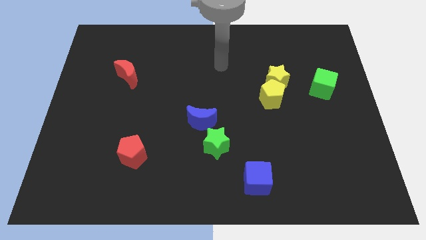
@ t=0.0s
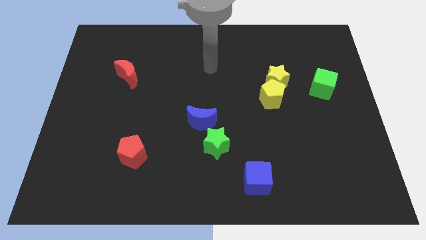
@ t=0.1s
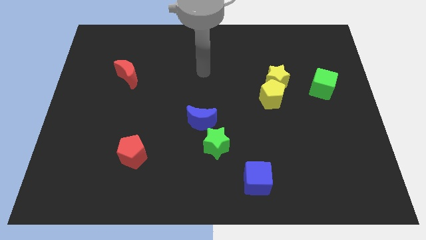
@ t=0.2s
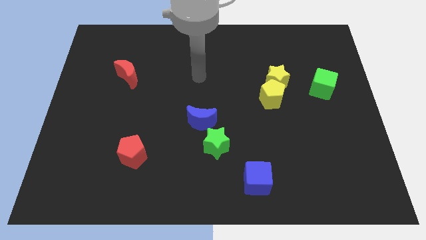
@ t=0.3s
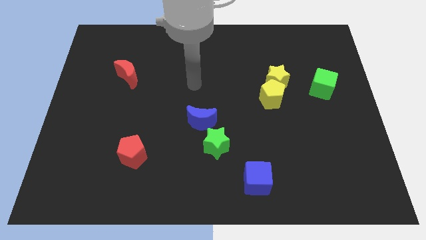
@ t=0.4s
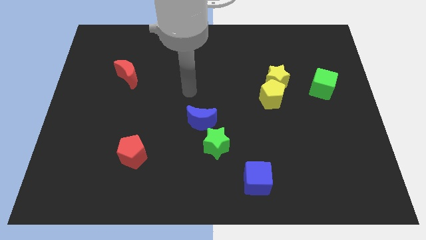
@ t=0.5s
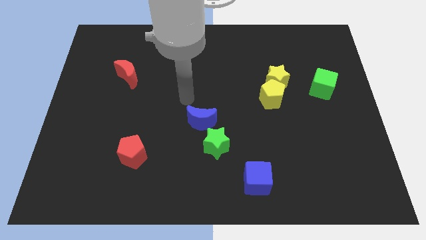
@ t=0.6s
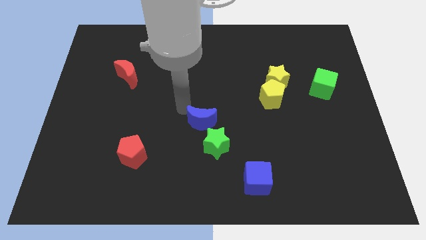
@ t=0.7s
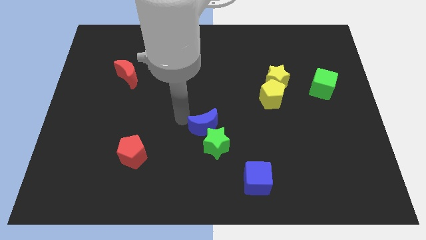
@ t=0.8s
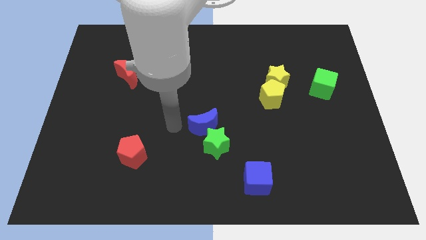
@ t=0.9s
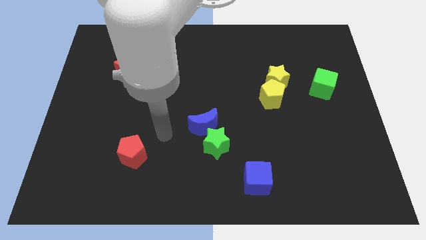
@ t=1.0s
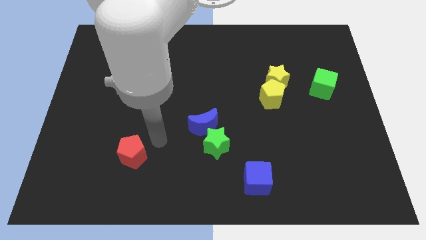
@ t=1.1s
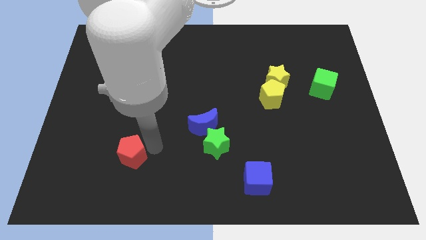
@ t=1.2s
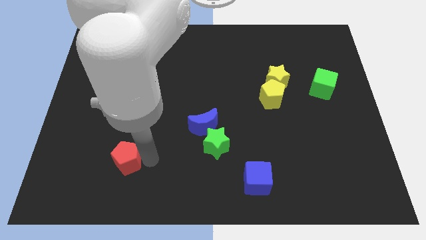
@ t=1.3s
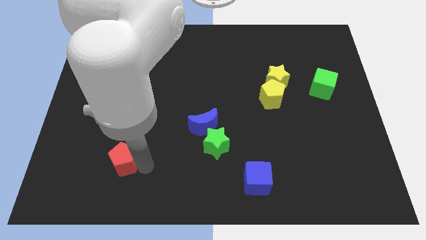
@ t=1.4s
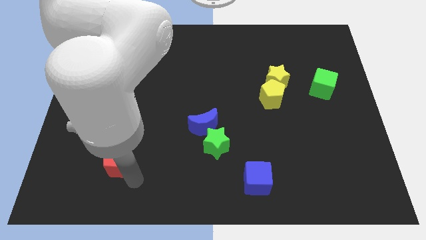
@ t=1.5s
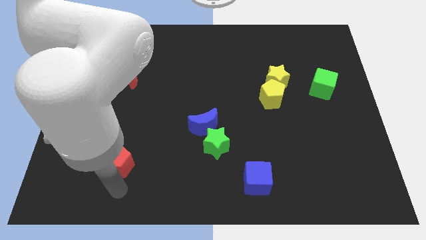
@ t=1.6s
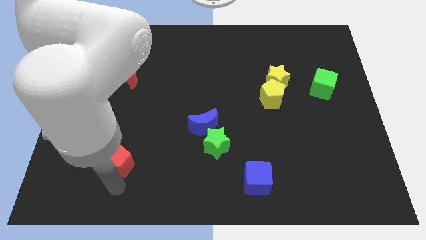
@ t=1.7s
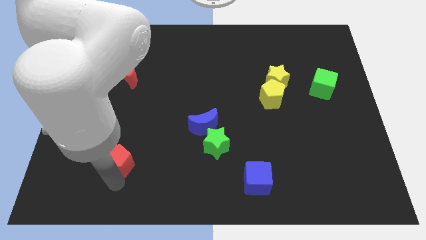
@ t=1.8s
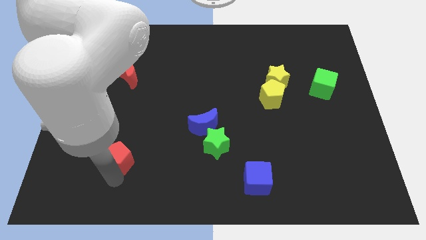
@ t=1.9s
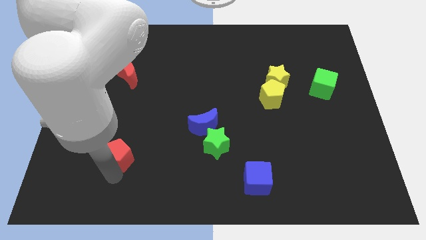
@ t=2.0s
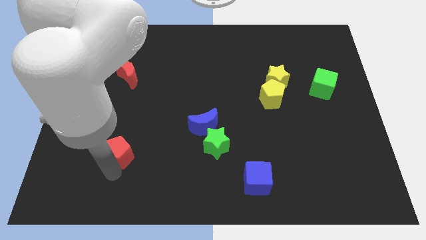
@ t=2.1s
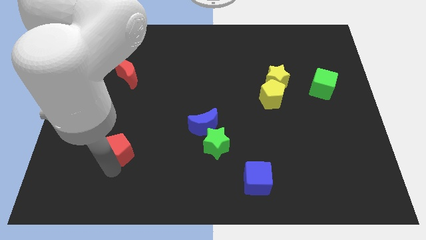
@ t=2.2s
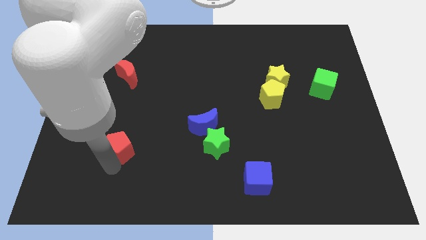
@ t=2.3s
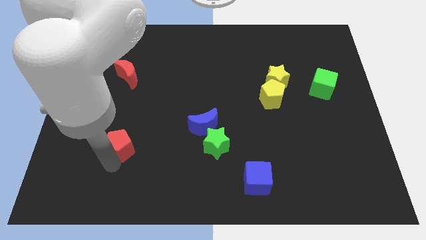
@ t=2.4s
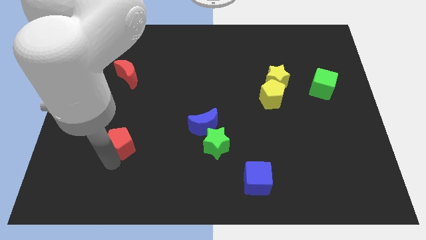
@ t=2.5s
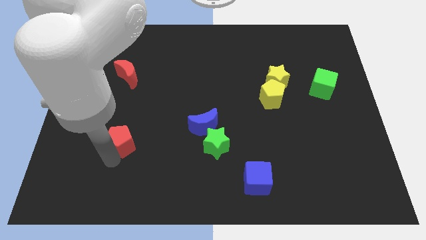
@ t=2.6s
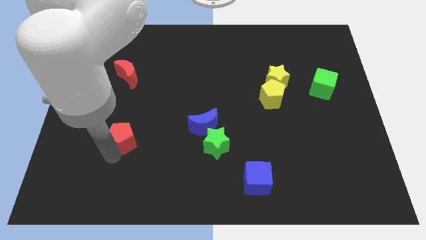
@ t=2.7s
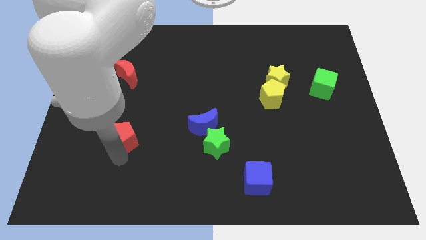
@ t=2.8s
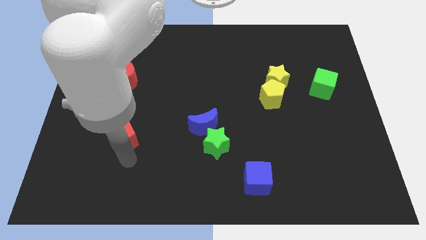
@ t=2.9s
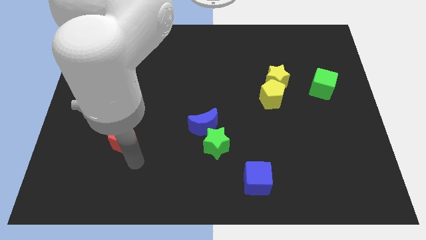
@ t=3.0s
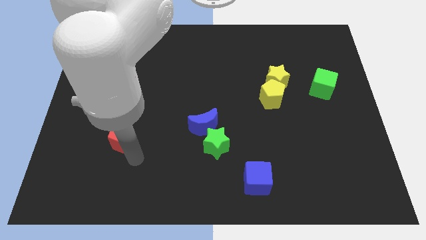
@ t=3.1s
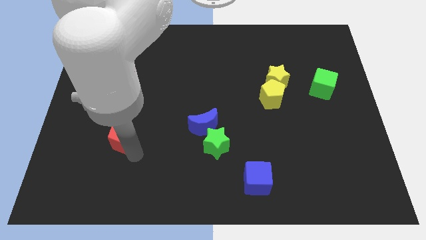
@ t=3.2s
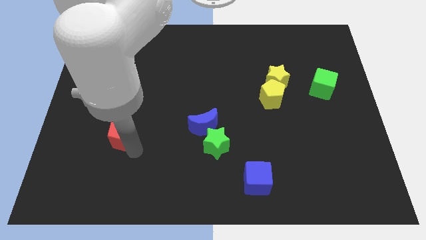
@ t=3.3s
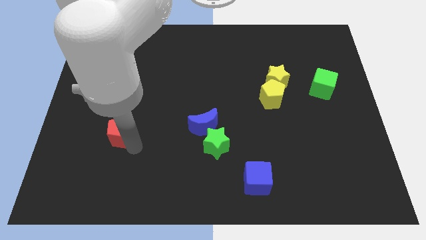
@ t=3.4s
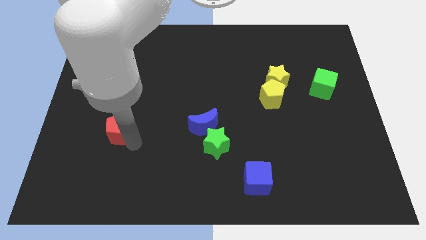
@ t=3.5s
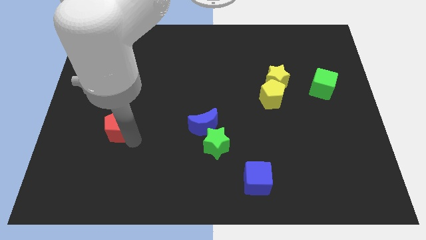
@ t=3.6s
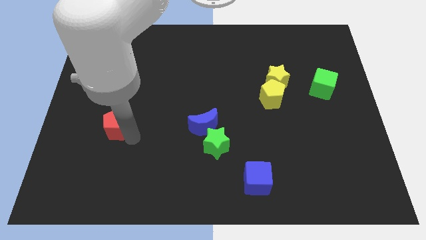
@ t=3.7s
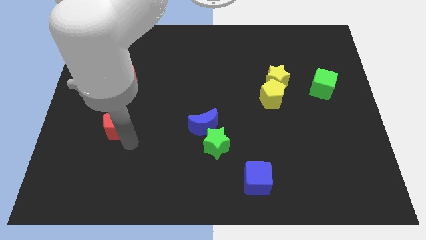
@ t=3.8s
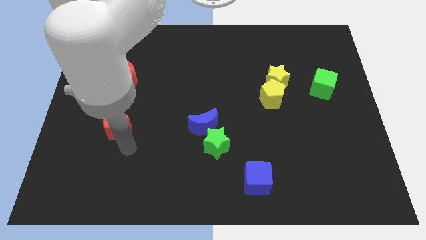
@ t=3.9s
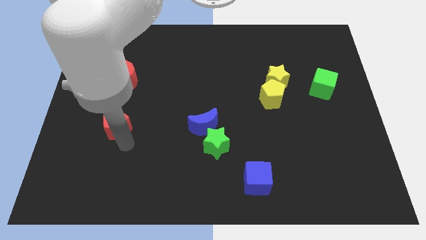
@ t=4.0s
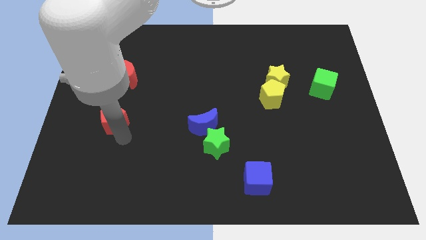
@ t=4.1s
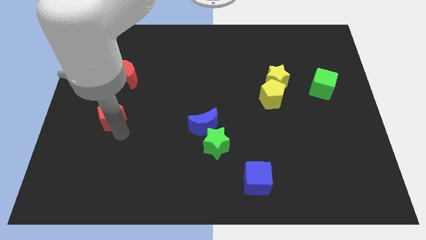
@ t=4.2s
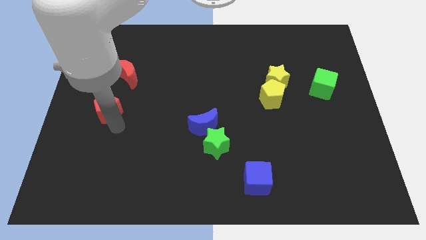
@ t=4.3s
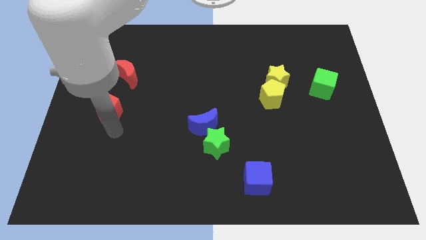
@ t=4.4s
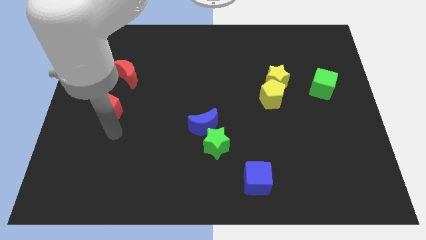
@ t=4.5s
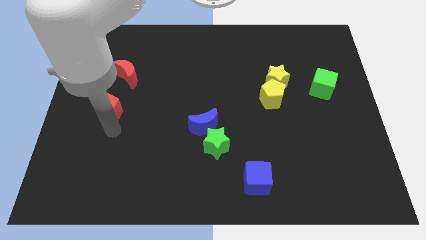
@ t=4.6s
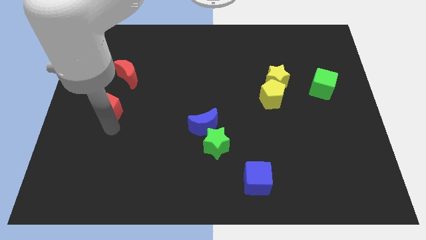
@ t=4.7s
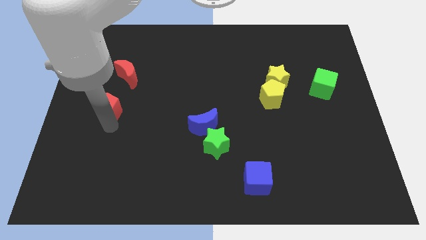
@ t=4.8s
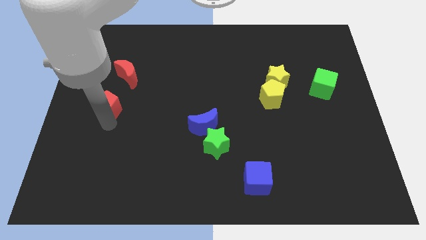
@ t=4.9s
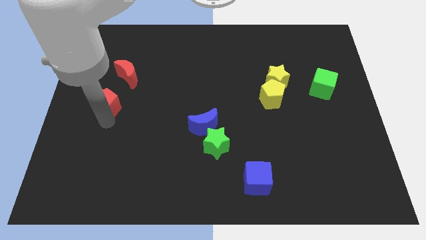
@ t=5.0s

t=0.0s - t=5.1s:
put the red pentagon to the bottom left of the red moon

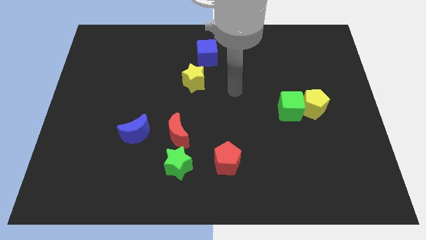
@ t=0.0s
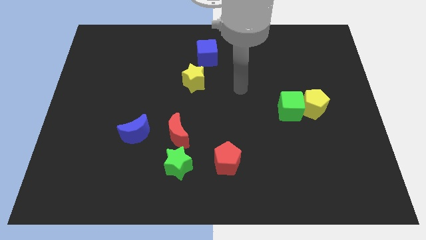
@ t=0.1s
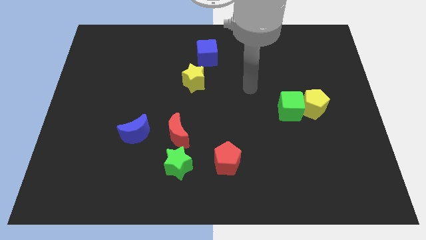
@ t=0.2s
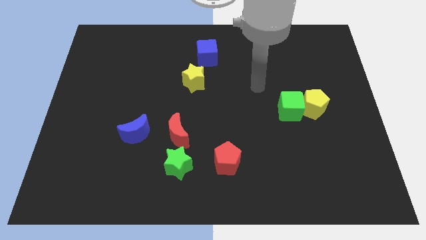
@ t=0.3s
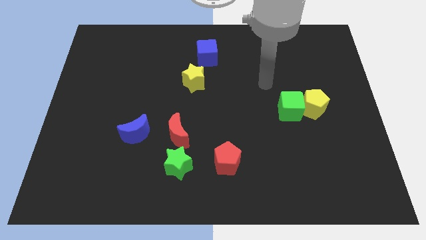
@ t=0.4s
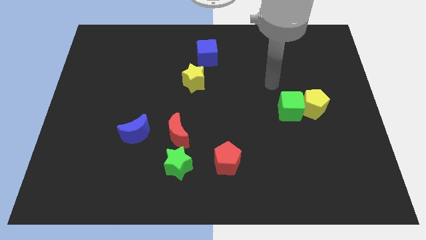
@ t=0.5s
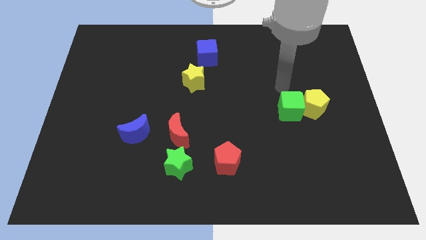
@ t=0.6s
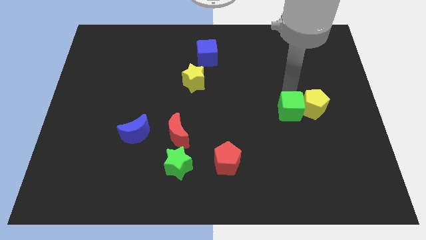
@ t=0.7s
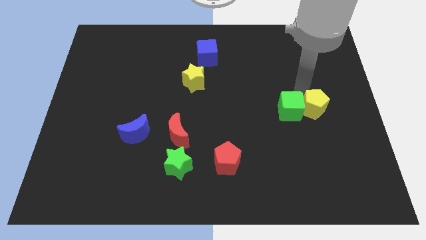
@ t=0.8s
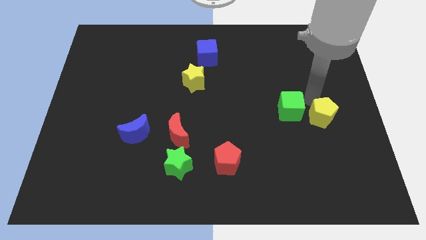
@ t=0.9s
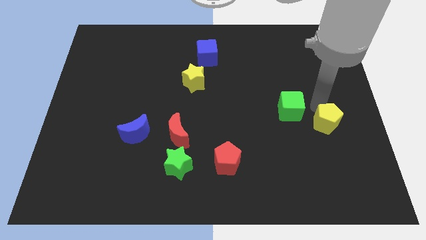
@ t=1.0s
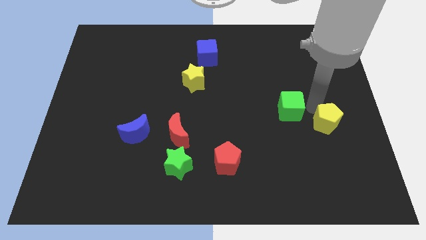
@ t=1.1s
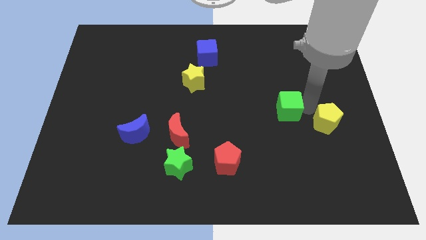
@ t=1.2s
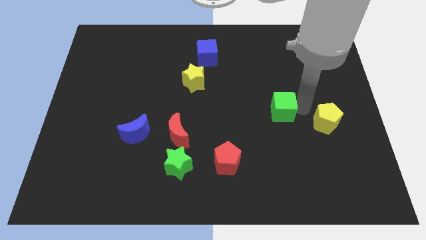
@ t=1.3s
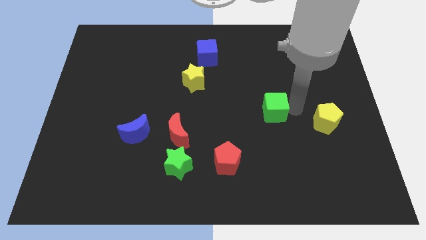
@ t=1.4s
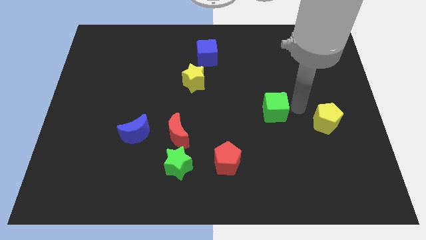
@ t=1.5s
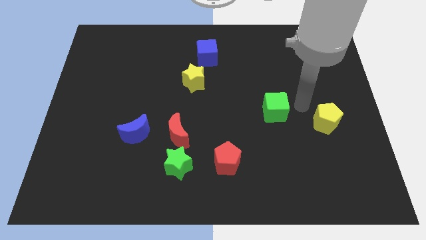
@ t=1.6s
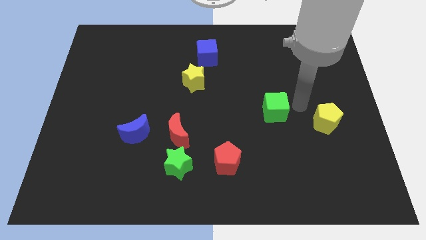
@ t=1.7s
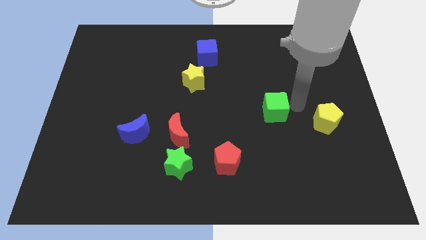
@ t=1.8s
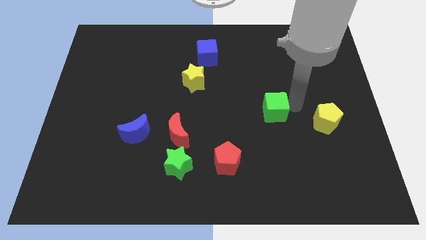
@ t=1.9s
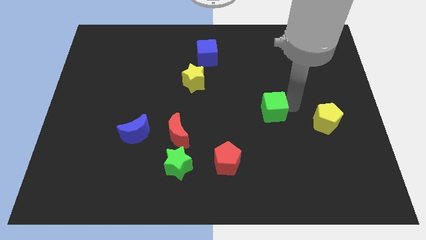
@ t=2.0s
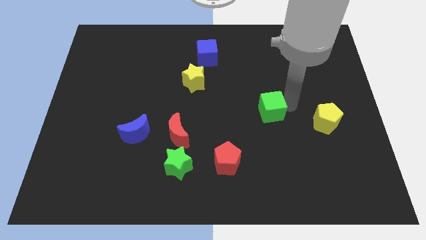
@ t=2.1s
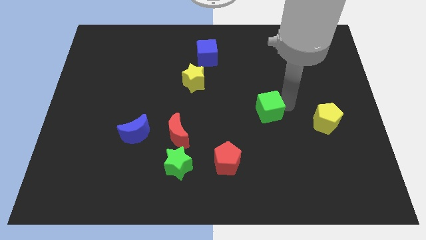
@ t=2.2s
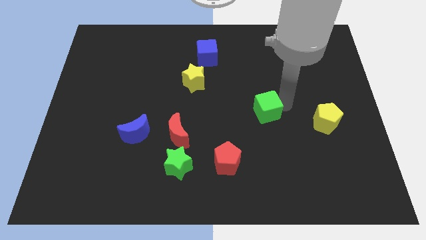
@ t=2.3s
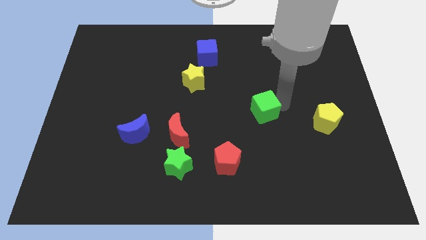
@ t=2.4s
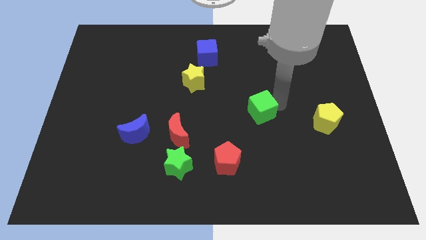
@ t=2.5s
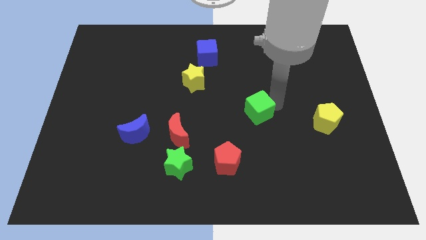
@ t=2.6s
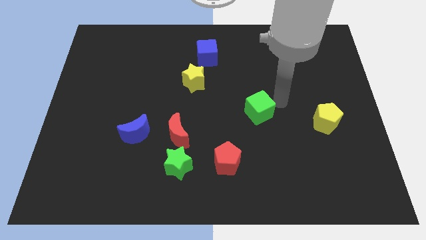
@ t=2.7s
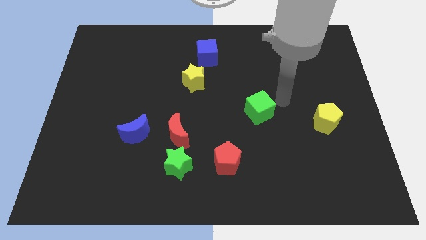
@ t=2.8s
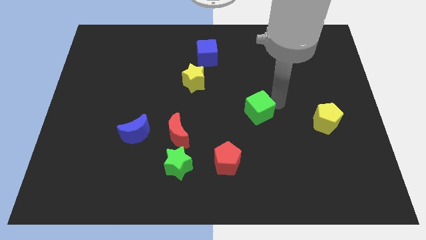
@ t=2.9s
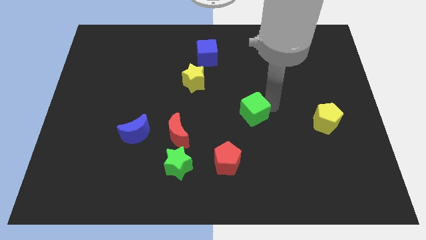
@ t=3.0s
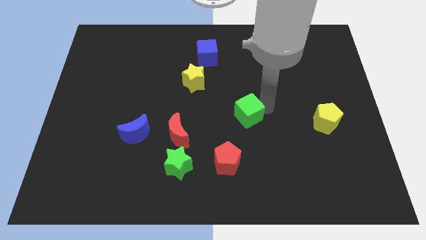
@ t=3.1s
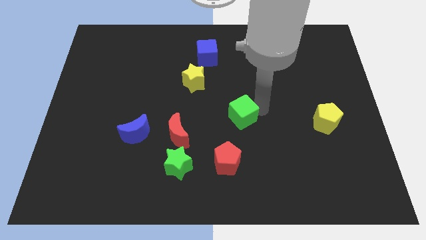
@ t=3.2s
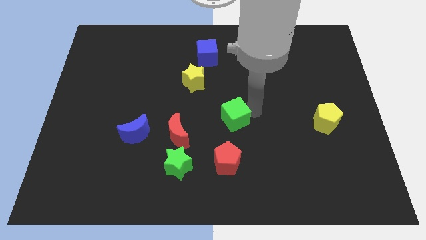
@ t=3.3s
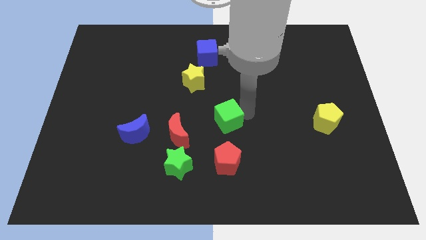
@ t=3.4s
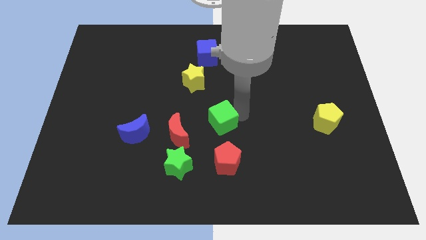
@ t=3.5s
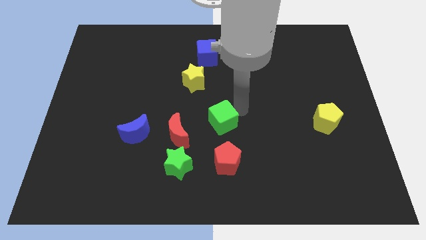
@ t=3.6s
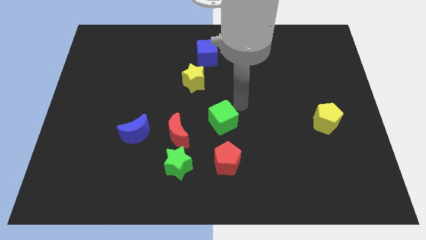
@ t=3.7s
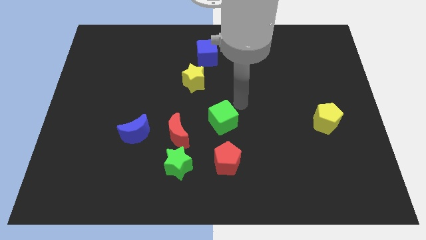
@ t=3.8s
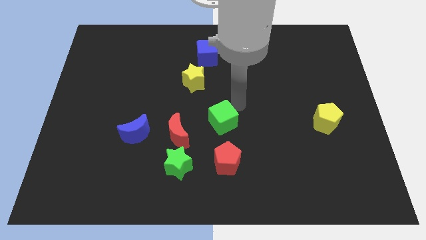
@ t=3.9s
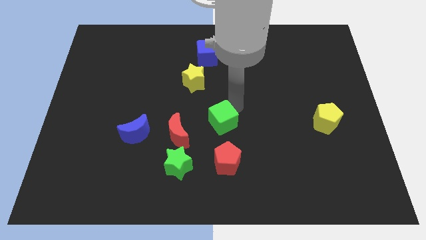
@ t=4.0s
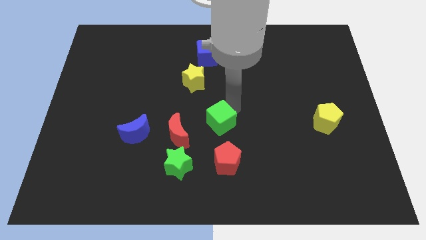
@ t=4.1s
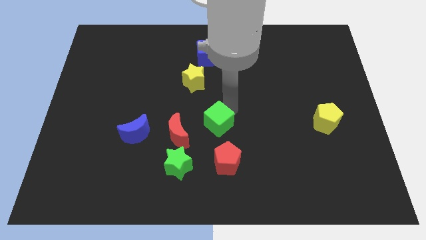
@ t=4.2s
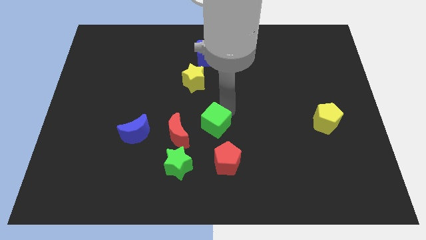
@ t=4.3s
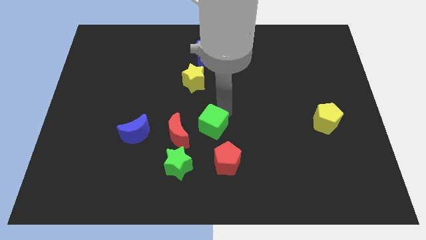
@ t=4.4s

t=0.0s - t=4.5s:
move the green cube to the top left of the red pentagon
